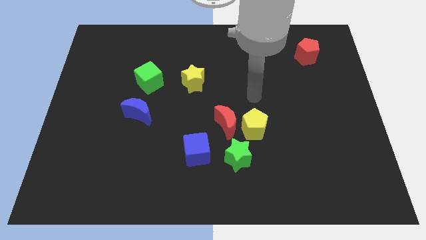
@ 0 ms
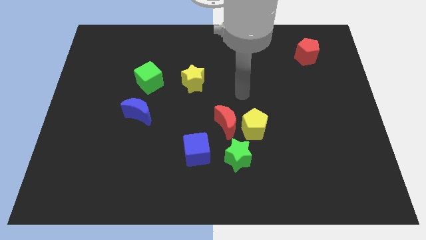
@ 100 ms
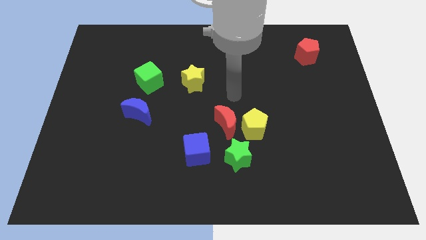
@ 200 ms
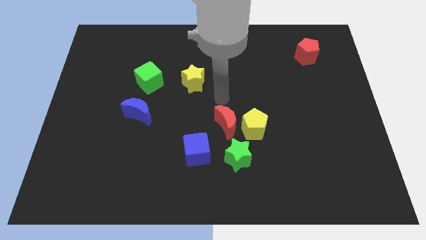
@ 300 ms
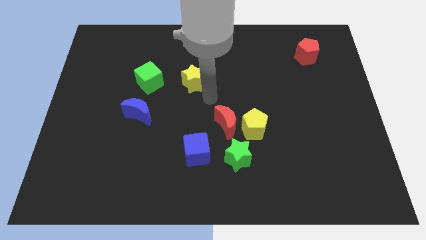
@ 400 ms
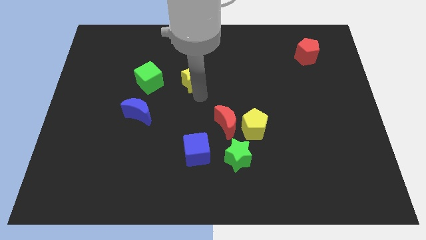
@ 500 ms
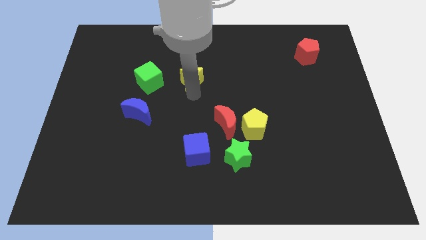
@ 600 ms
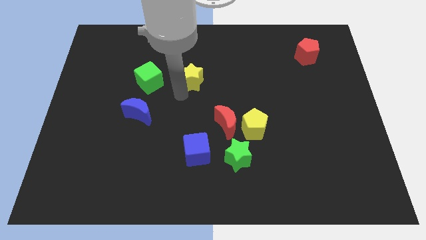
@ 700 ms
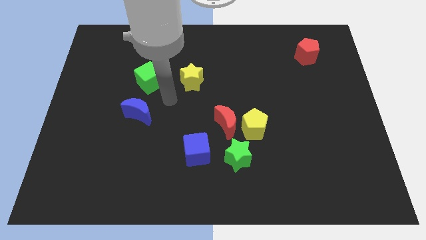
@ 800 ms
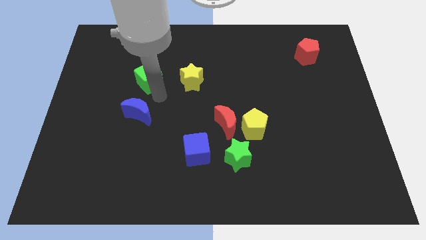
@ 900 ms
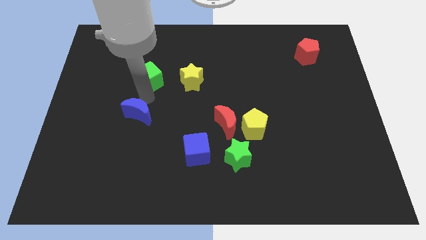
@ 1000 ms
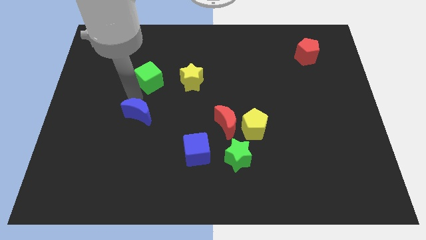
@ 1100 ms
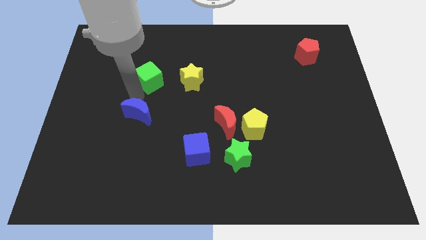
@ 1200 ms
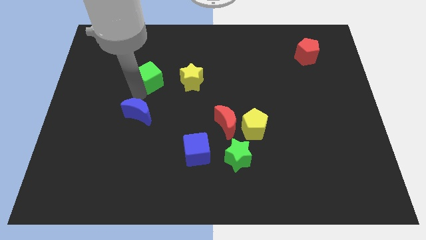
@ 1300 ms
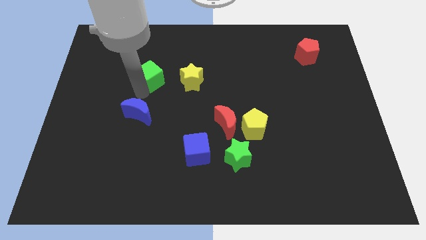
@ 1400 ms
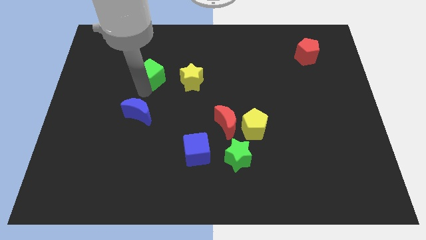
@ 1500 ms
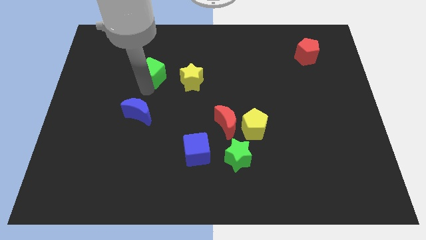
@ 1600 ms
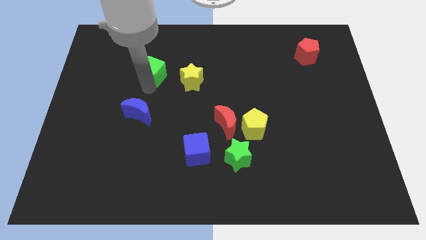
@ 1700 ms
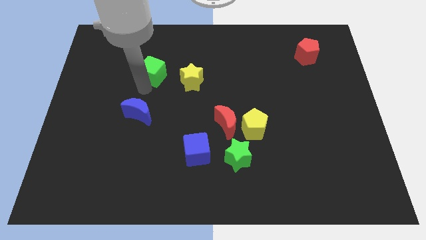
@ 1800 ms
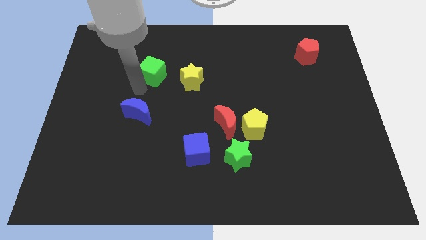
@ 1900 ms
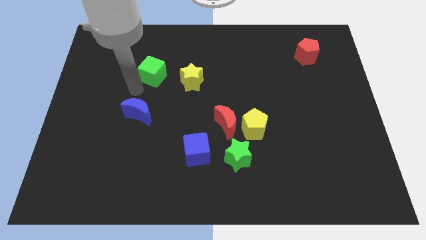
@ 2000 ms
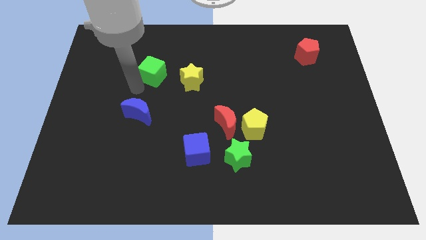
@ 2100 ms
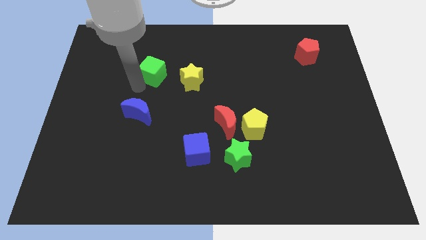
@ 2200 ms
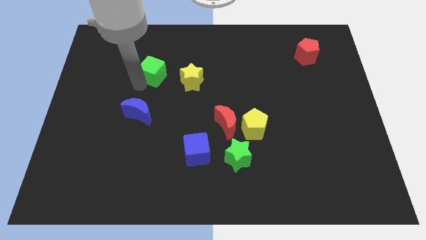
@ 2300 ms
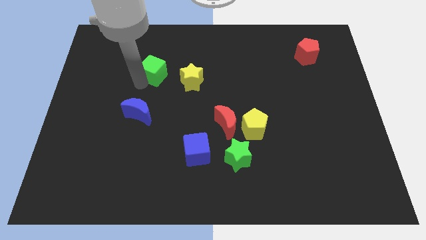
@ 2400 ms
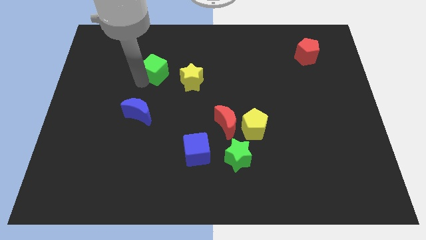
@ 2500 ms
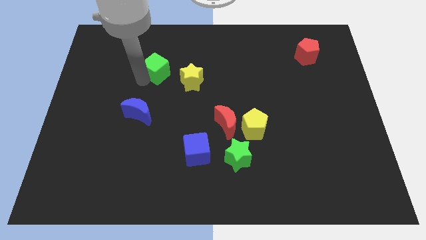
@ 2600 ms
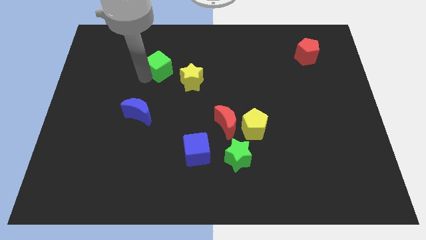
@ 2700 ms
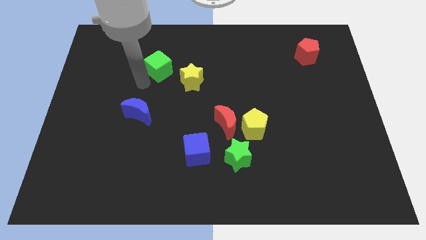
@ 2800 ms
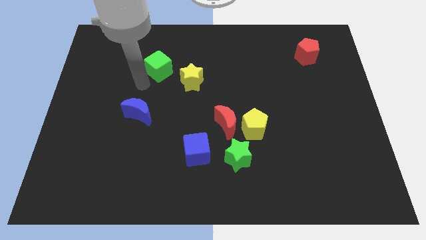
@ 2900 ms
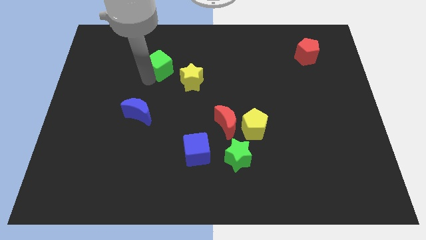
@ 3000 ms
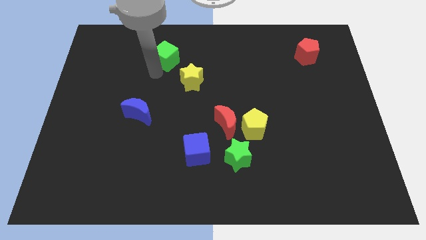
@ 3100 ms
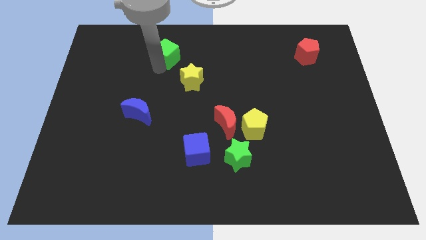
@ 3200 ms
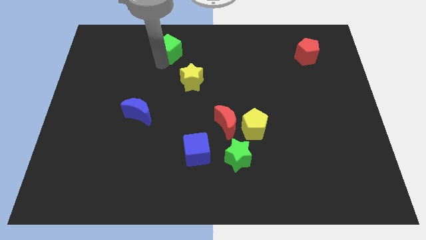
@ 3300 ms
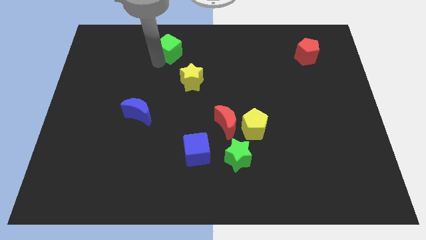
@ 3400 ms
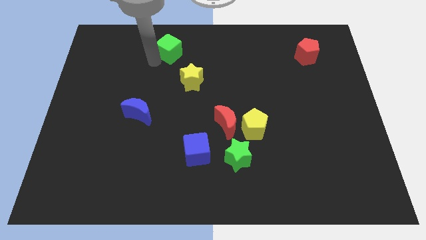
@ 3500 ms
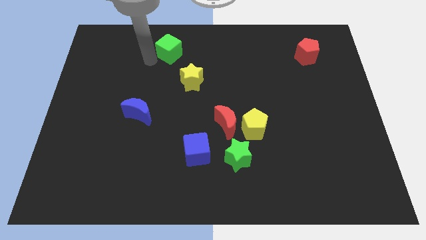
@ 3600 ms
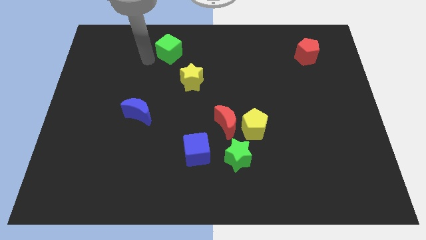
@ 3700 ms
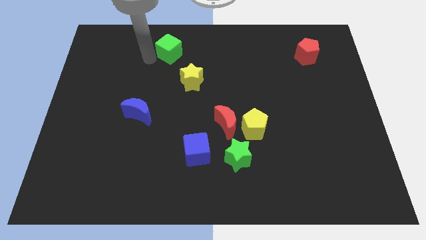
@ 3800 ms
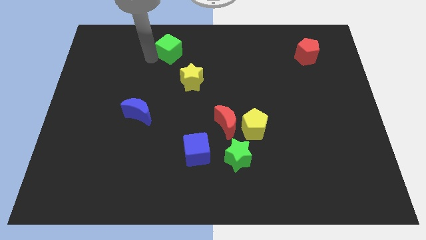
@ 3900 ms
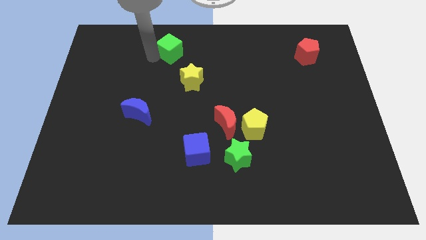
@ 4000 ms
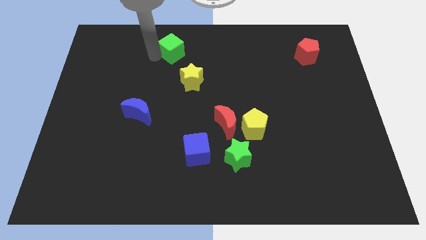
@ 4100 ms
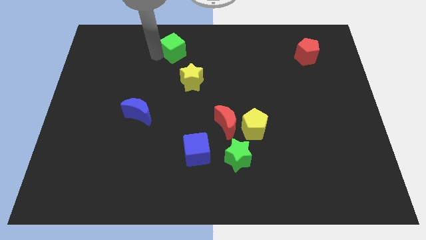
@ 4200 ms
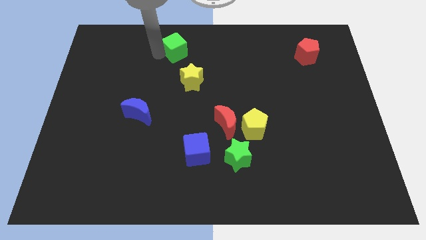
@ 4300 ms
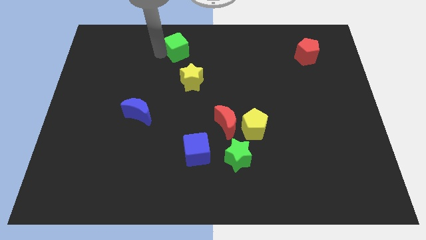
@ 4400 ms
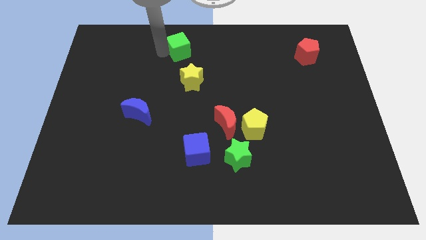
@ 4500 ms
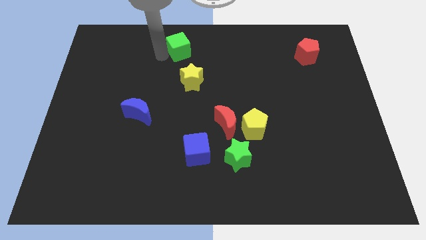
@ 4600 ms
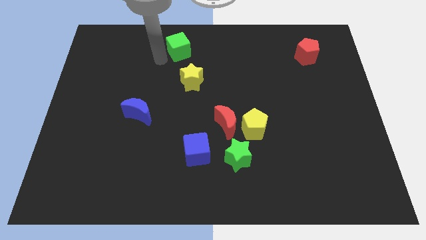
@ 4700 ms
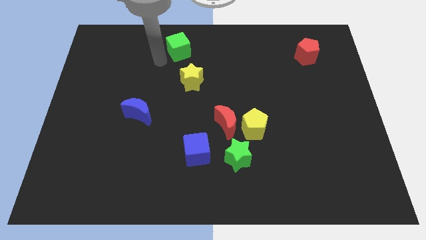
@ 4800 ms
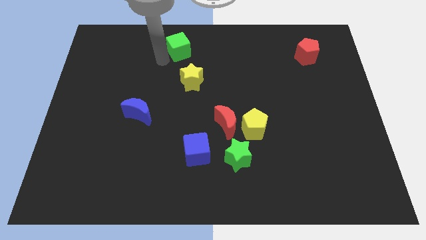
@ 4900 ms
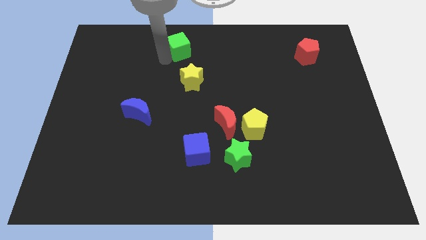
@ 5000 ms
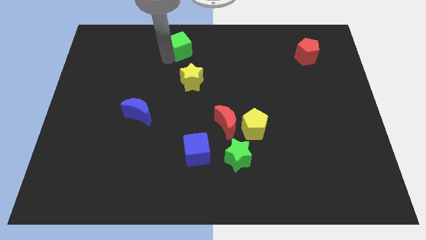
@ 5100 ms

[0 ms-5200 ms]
move the green cube to the towards your base

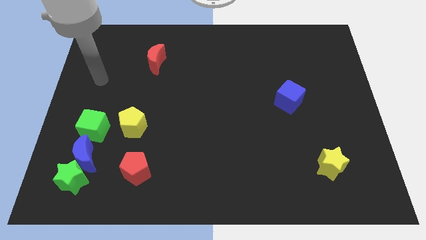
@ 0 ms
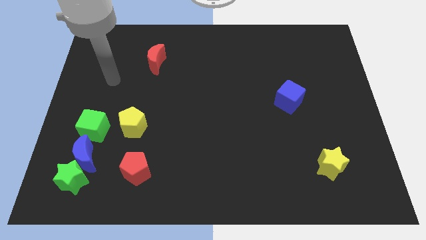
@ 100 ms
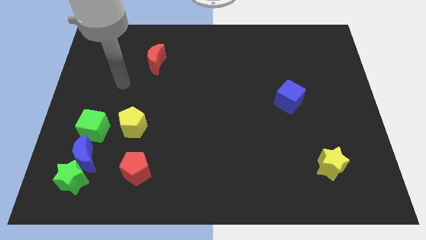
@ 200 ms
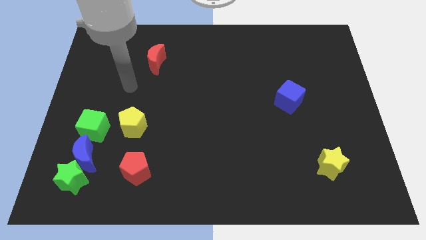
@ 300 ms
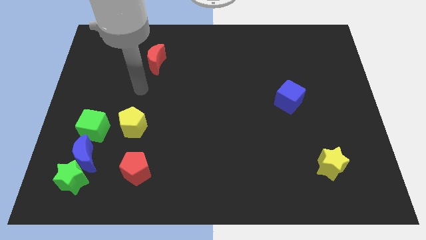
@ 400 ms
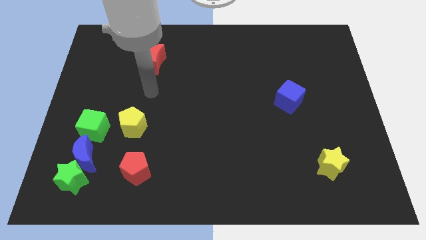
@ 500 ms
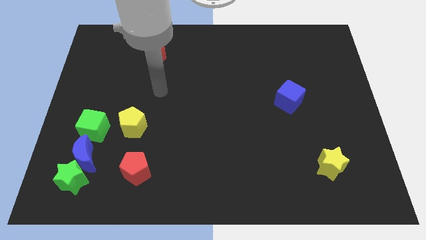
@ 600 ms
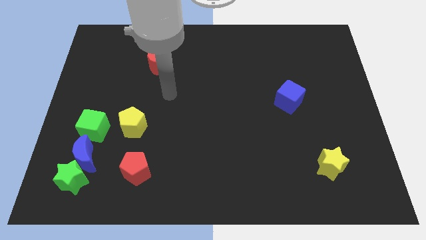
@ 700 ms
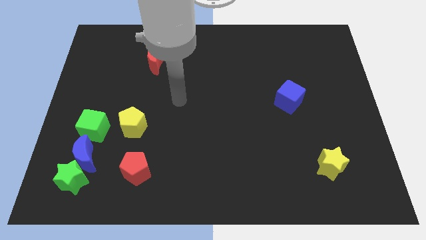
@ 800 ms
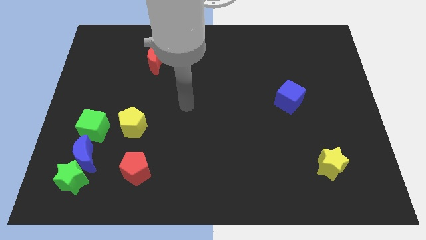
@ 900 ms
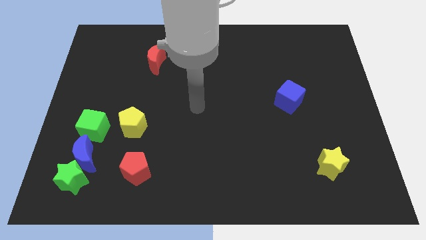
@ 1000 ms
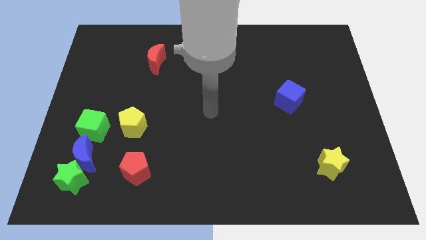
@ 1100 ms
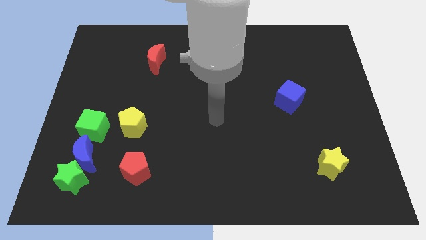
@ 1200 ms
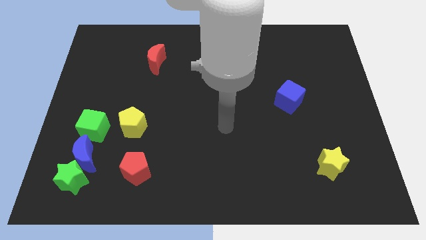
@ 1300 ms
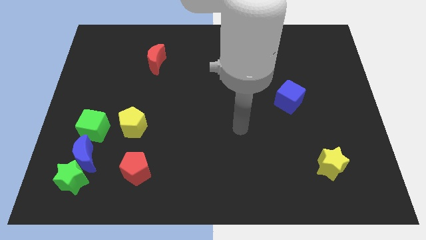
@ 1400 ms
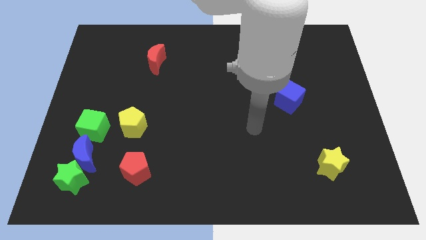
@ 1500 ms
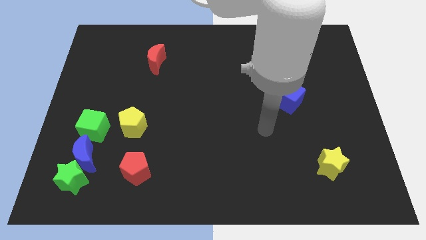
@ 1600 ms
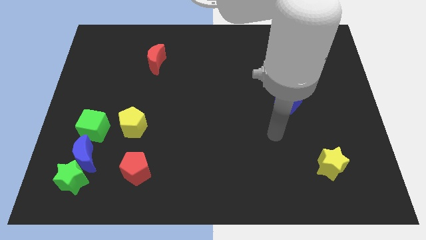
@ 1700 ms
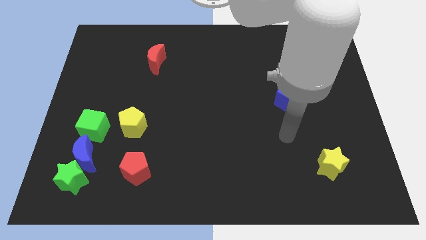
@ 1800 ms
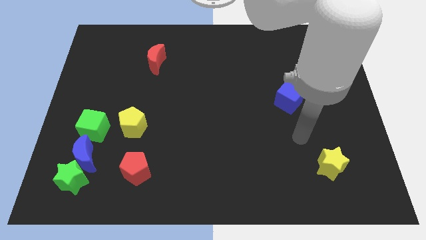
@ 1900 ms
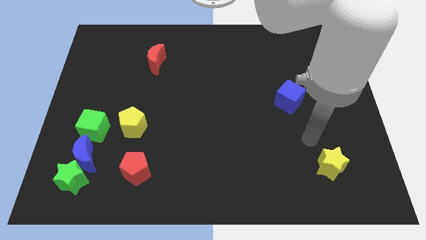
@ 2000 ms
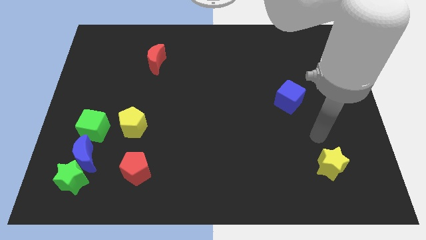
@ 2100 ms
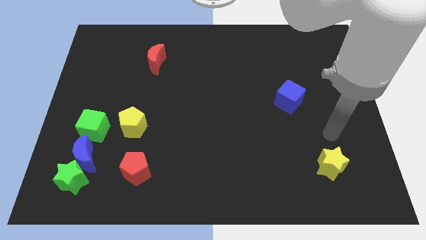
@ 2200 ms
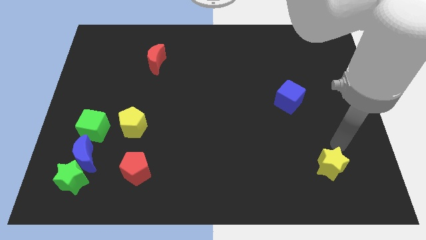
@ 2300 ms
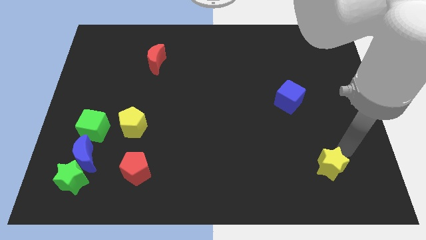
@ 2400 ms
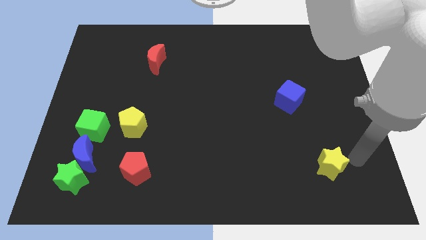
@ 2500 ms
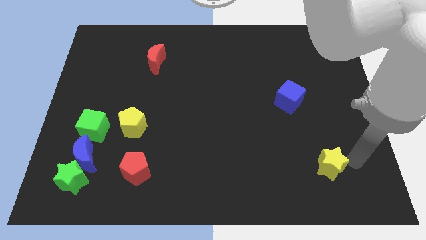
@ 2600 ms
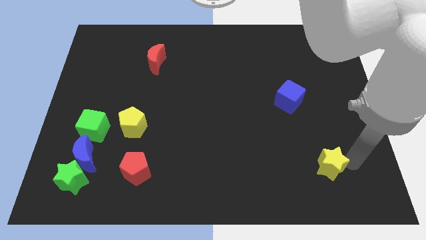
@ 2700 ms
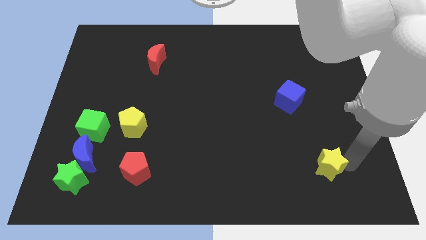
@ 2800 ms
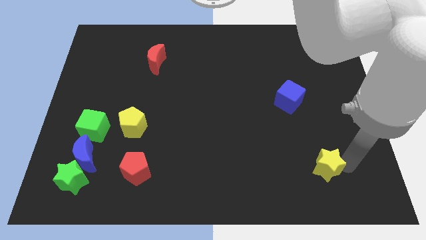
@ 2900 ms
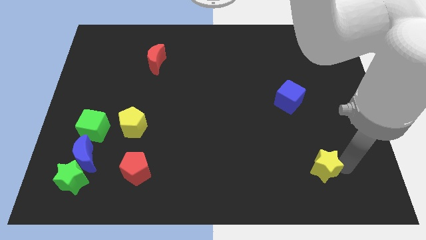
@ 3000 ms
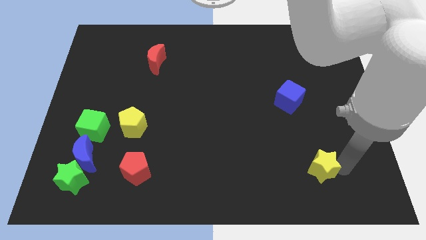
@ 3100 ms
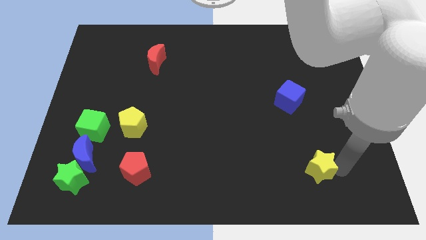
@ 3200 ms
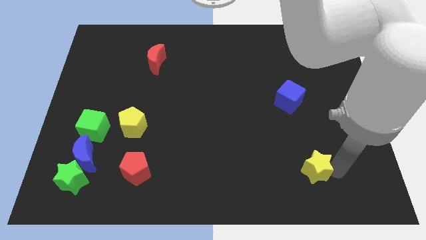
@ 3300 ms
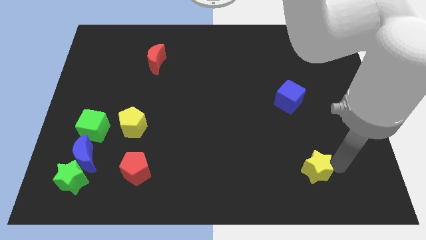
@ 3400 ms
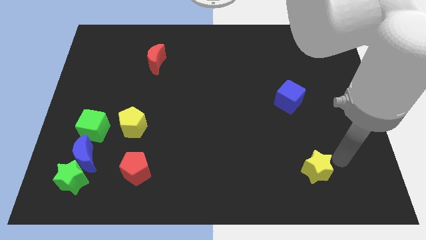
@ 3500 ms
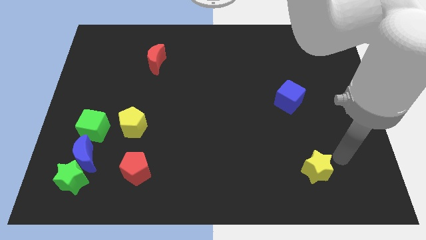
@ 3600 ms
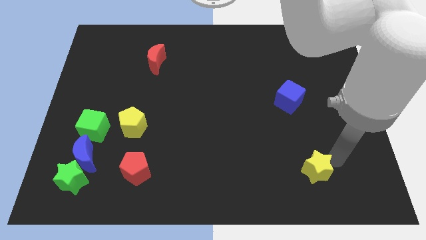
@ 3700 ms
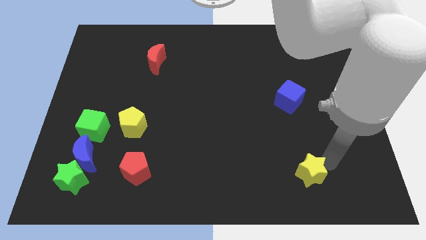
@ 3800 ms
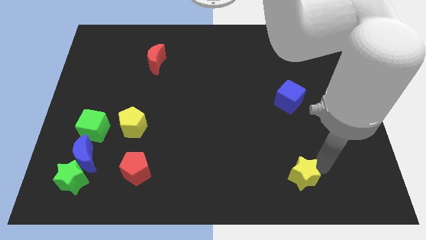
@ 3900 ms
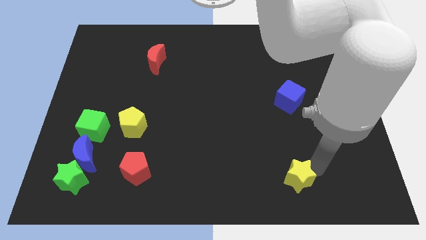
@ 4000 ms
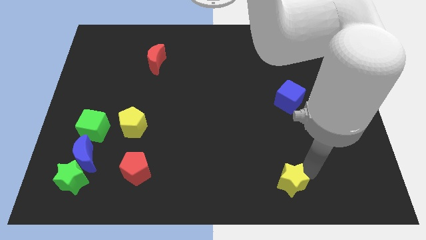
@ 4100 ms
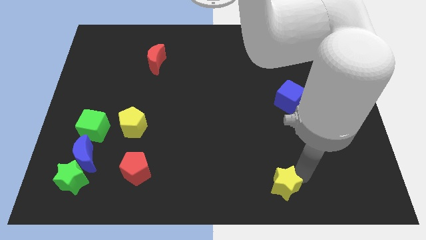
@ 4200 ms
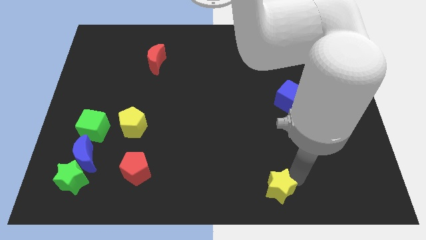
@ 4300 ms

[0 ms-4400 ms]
put the yellow star to the bottom side
